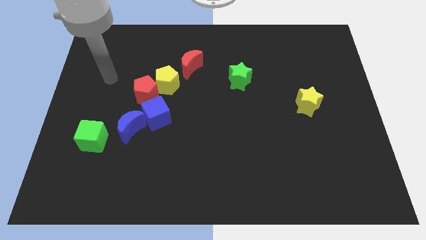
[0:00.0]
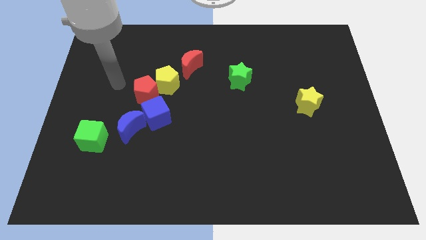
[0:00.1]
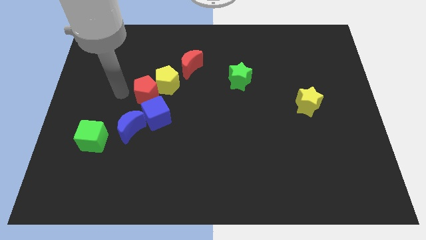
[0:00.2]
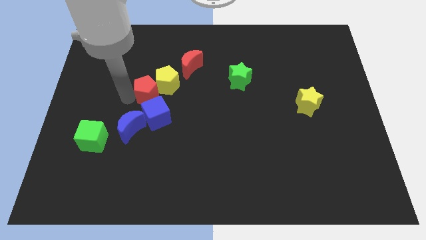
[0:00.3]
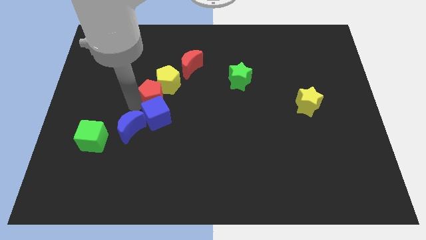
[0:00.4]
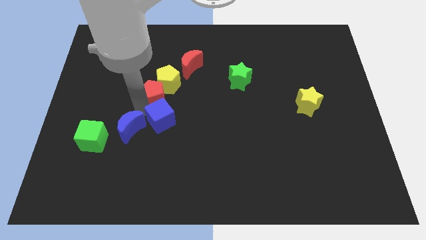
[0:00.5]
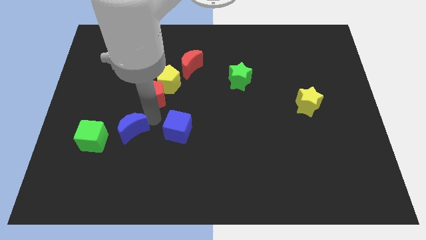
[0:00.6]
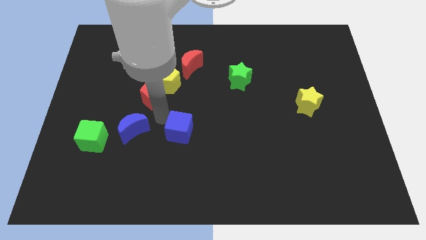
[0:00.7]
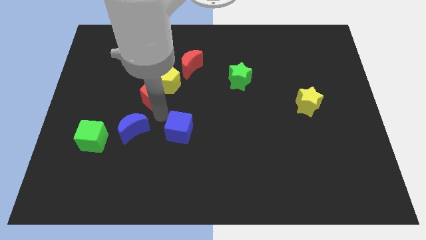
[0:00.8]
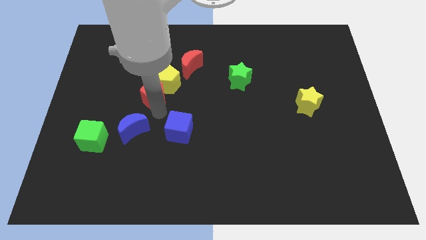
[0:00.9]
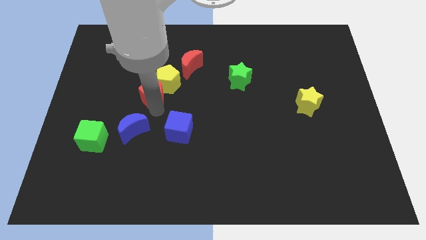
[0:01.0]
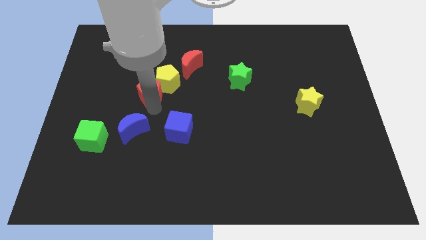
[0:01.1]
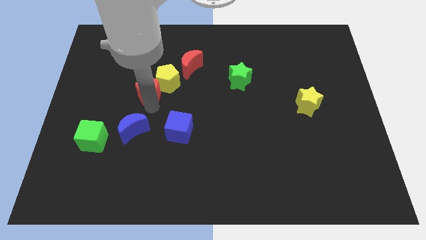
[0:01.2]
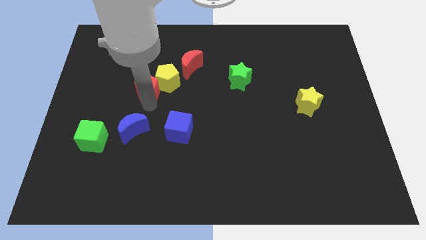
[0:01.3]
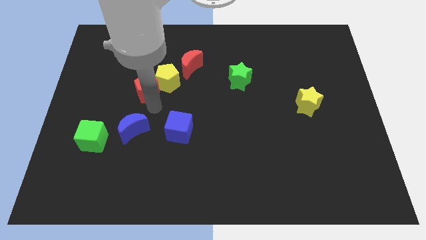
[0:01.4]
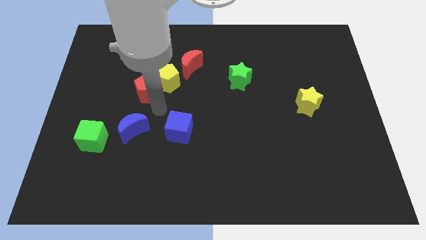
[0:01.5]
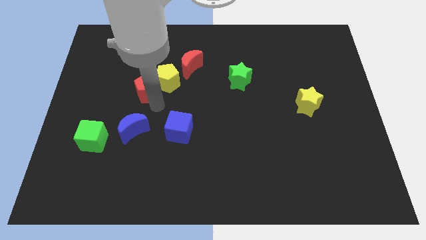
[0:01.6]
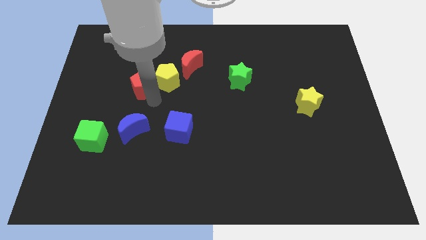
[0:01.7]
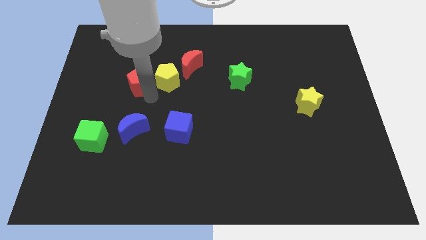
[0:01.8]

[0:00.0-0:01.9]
move the red pentagon away from the yellow pentagon, blue cube, and blue moon

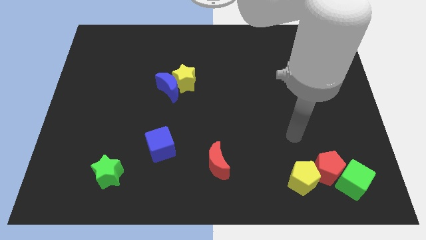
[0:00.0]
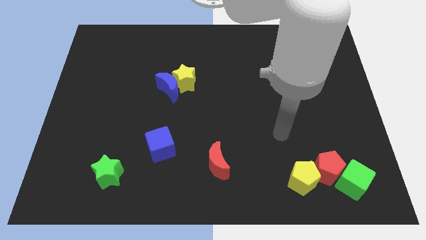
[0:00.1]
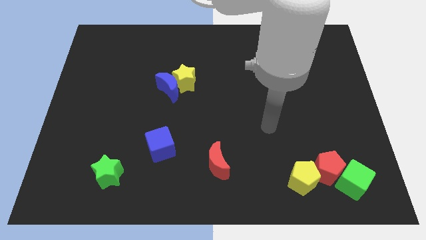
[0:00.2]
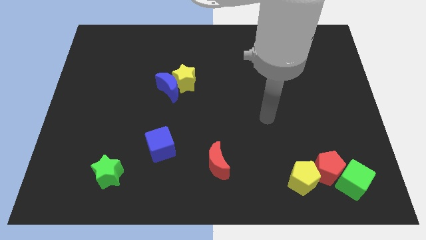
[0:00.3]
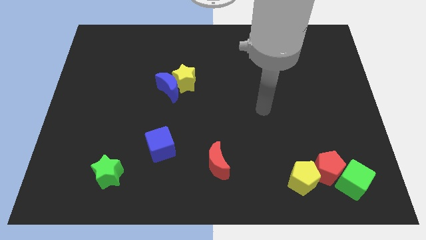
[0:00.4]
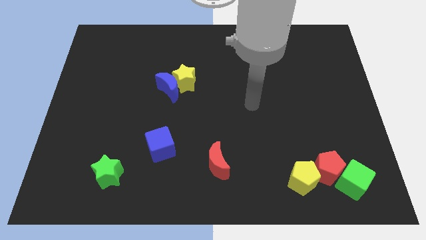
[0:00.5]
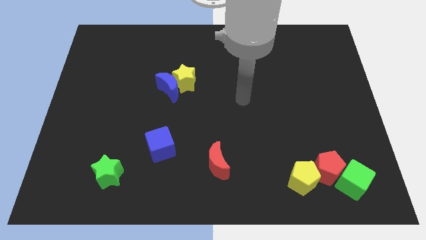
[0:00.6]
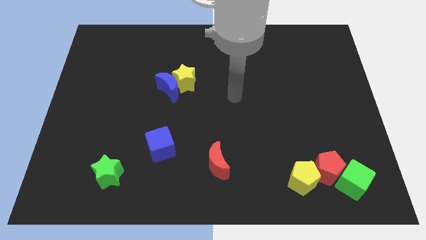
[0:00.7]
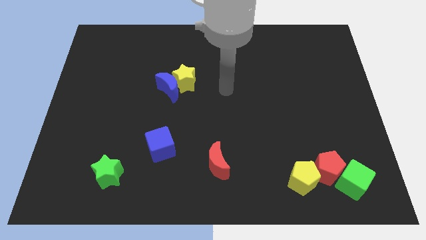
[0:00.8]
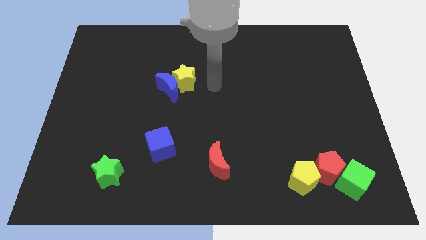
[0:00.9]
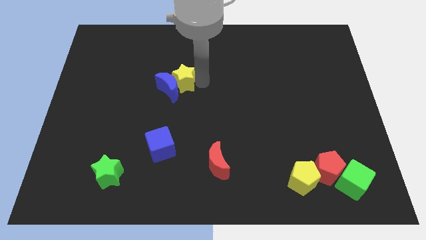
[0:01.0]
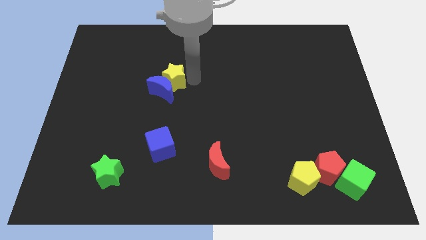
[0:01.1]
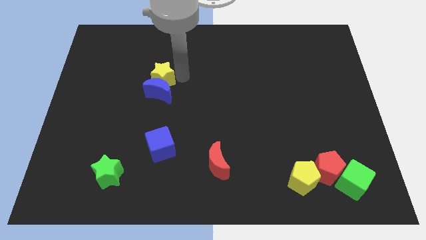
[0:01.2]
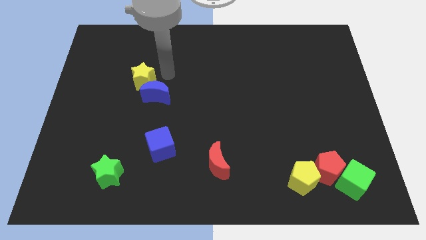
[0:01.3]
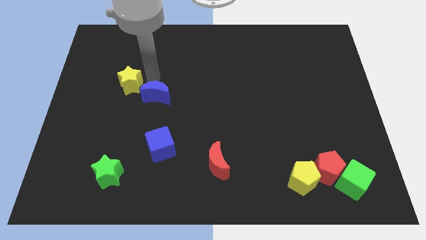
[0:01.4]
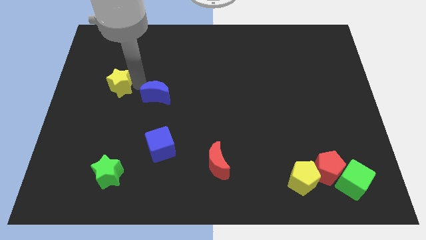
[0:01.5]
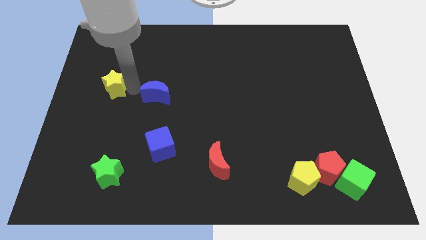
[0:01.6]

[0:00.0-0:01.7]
pull the blue moon apart from the yellow star

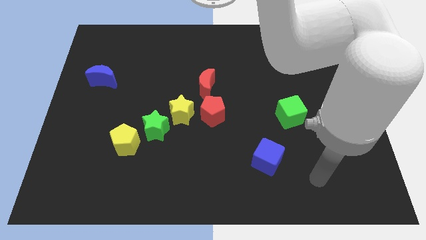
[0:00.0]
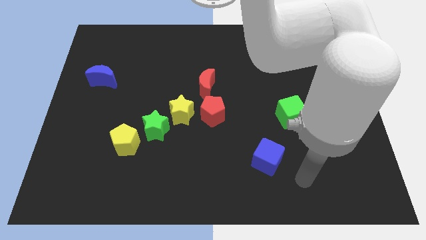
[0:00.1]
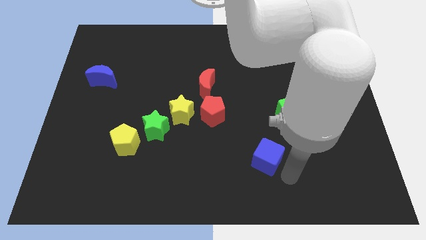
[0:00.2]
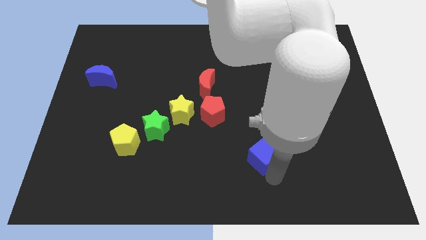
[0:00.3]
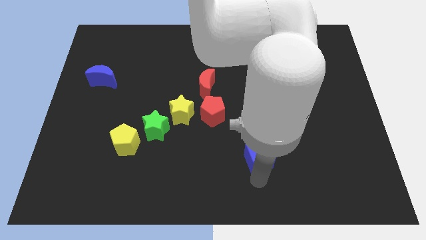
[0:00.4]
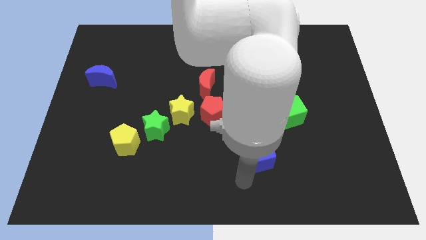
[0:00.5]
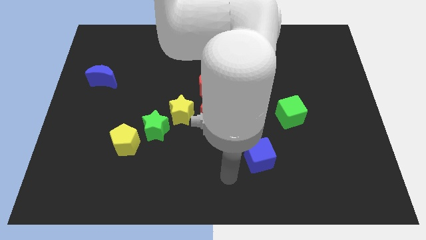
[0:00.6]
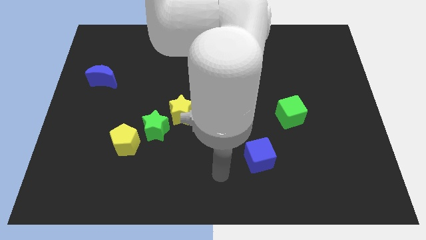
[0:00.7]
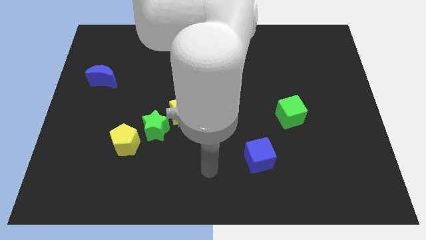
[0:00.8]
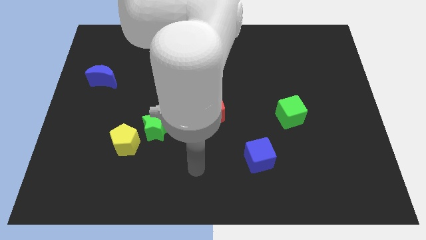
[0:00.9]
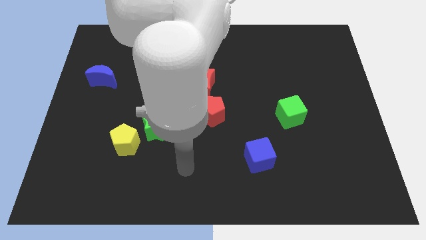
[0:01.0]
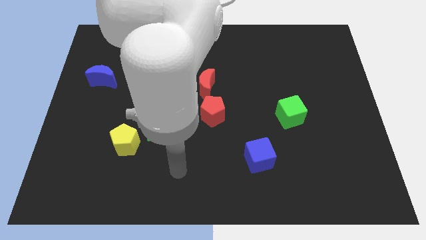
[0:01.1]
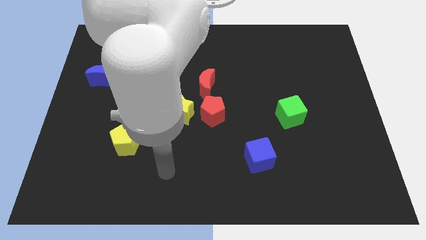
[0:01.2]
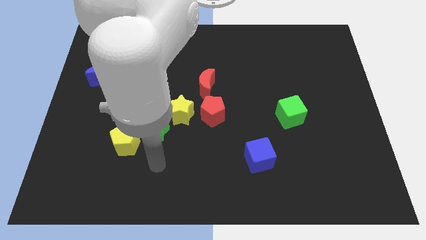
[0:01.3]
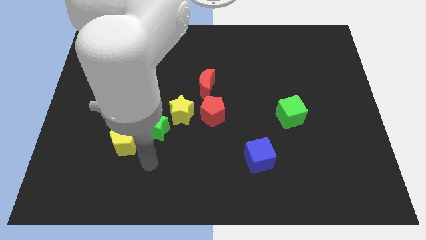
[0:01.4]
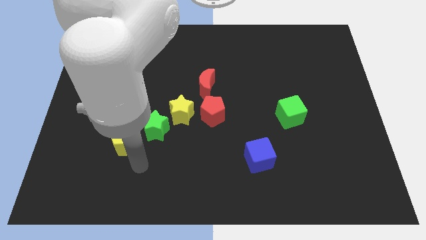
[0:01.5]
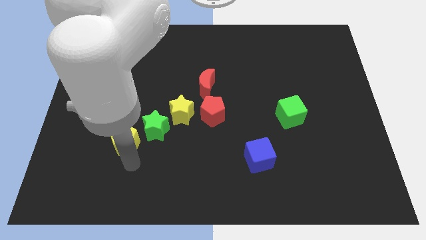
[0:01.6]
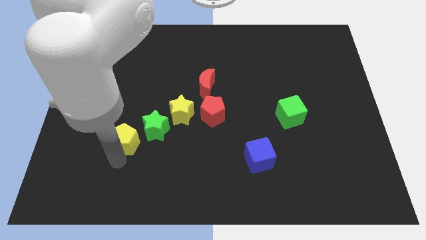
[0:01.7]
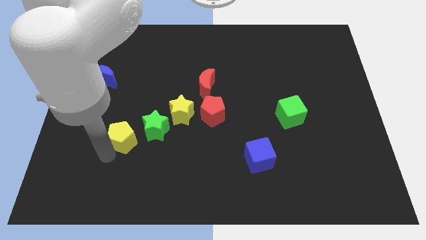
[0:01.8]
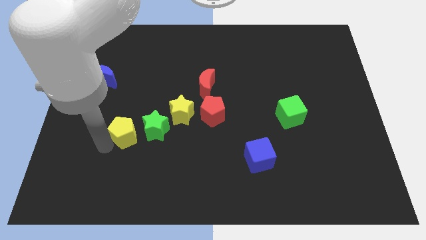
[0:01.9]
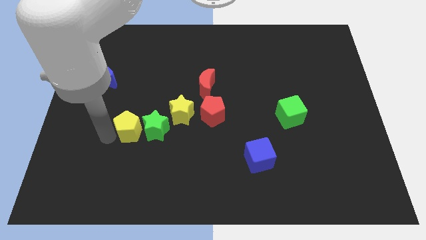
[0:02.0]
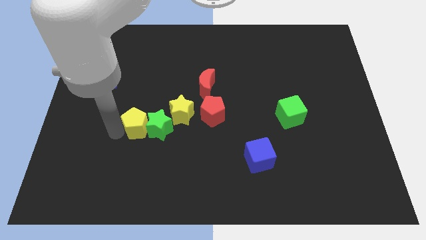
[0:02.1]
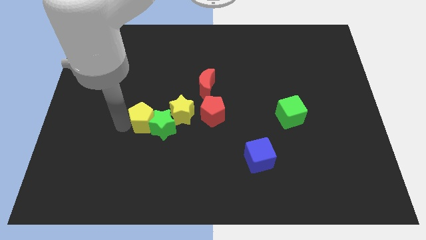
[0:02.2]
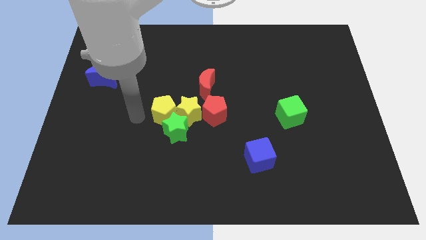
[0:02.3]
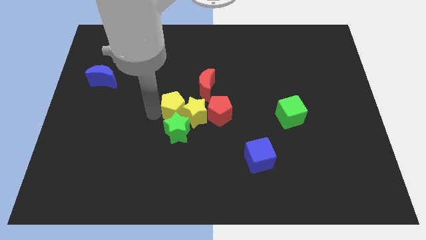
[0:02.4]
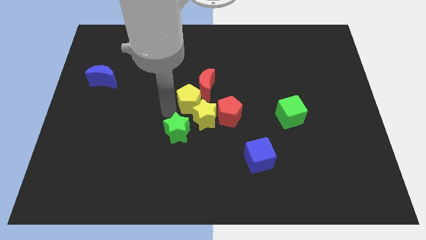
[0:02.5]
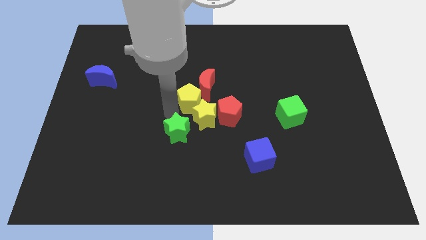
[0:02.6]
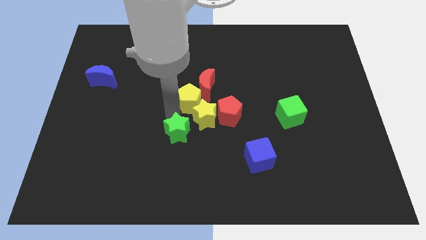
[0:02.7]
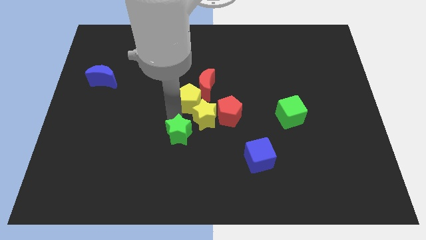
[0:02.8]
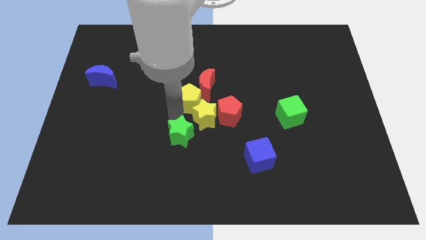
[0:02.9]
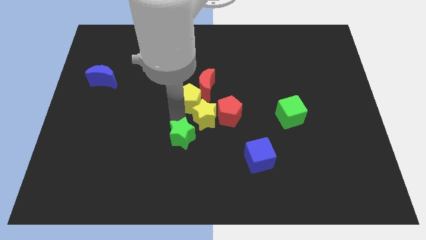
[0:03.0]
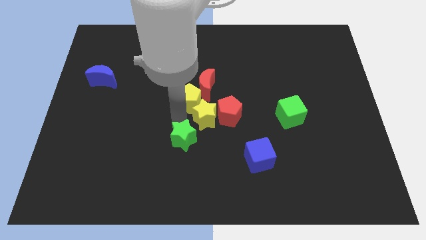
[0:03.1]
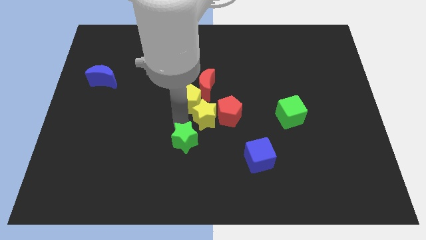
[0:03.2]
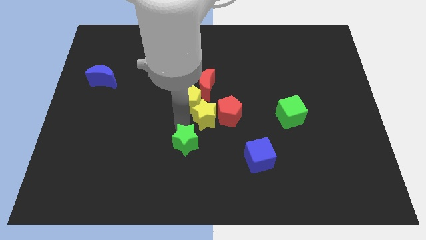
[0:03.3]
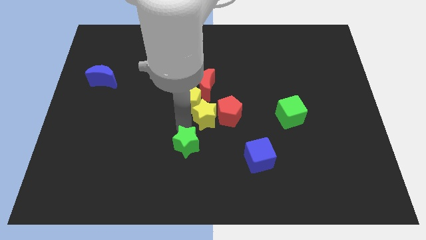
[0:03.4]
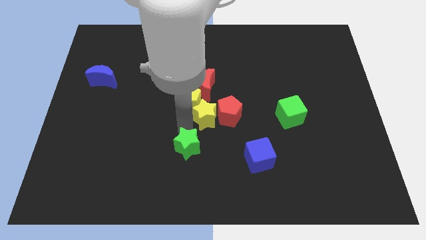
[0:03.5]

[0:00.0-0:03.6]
pull the green star apart from the yellow star and yellow pentagon

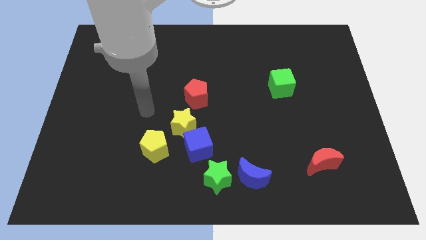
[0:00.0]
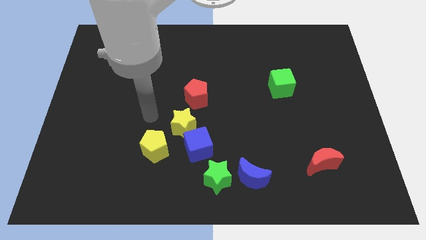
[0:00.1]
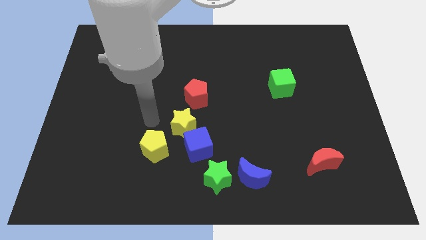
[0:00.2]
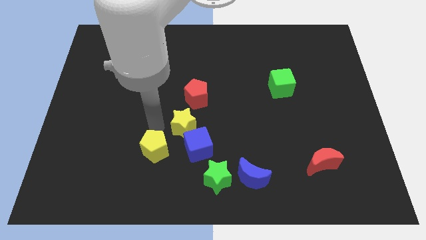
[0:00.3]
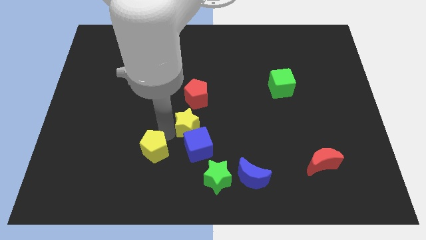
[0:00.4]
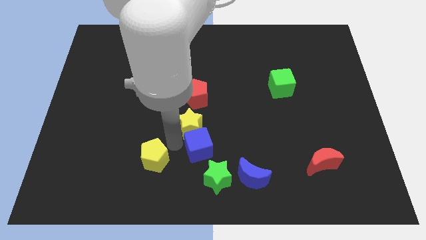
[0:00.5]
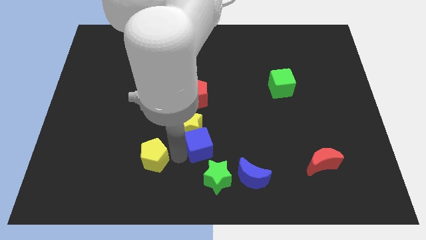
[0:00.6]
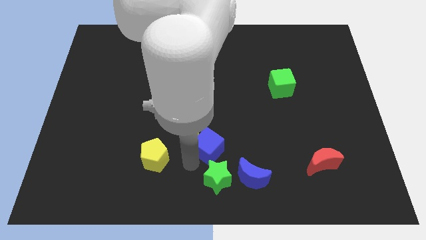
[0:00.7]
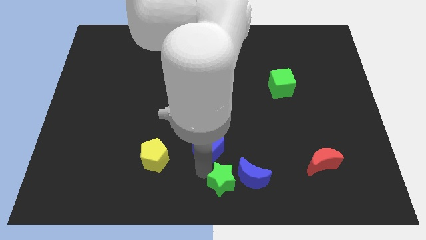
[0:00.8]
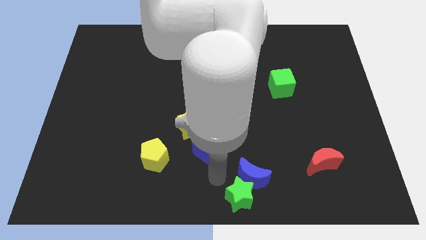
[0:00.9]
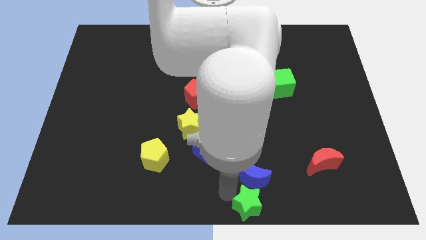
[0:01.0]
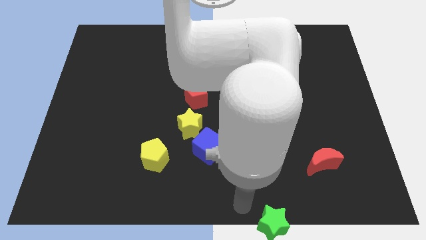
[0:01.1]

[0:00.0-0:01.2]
move the blue moon away from the green star

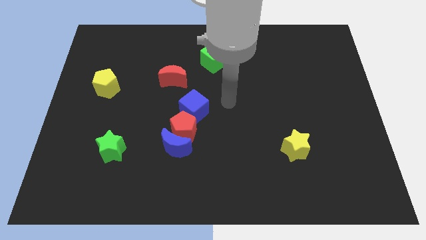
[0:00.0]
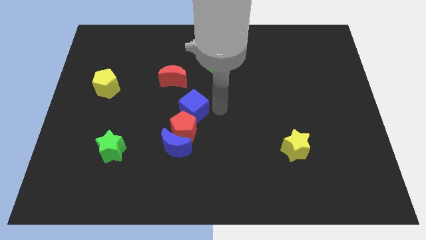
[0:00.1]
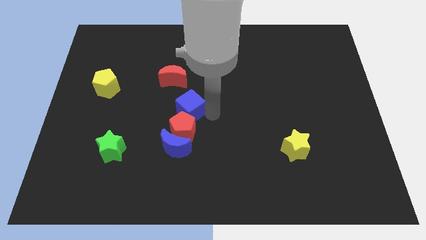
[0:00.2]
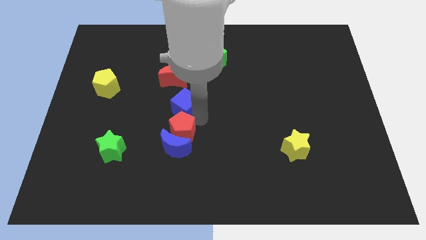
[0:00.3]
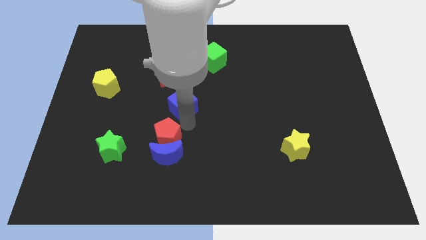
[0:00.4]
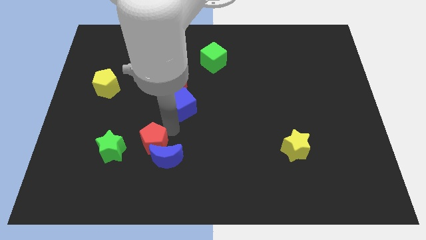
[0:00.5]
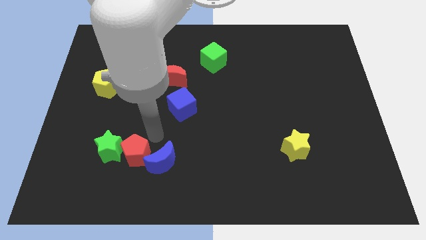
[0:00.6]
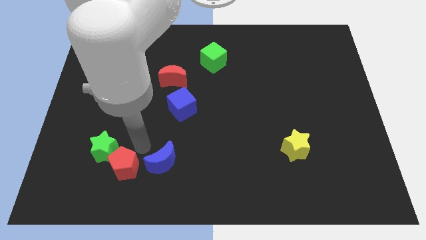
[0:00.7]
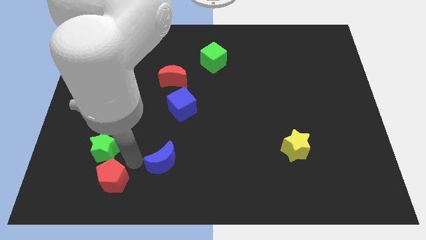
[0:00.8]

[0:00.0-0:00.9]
separate the blue moon from the red pentagon
